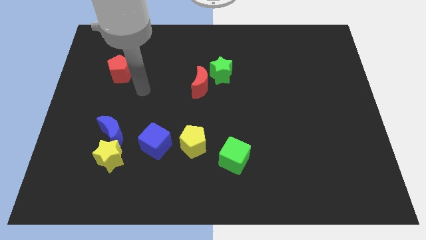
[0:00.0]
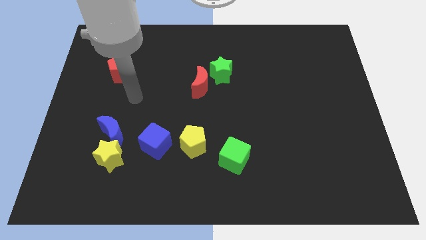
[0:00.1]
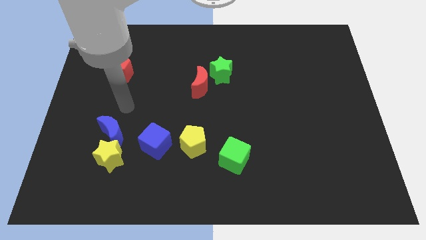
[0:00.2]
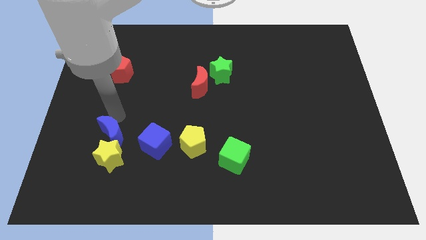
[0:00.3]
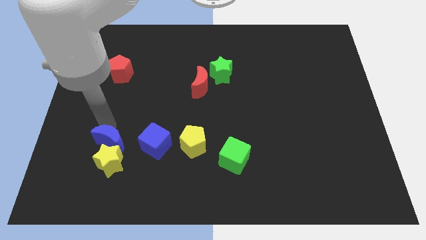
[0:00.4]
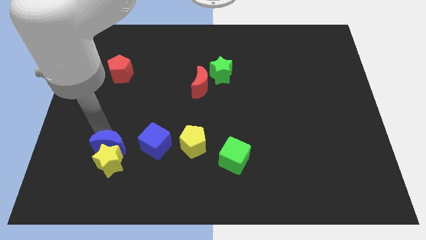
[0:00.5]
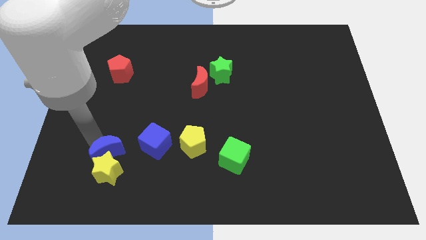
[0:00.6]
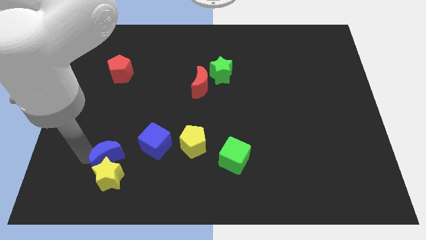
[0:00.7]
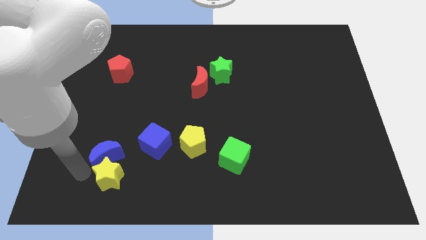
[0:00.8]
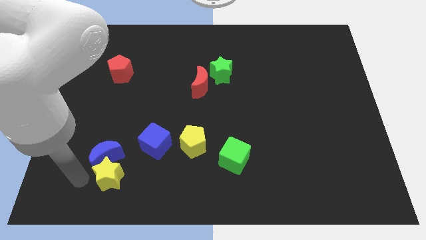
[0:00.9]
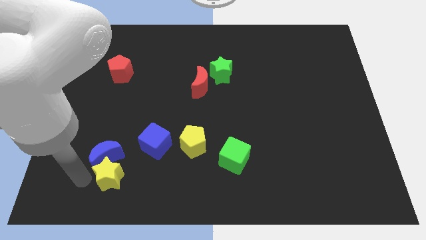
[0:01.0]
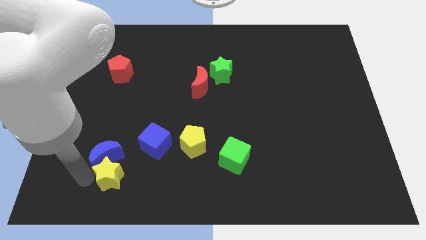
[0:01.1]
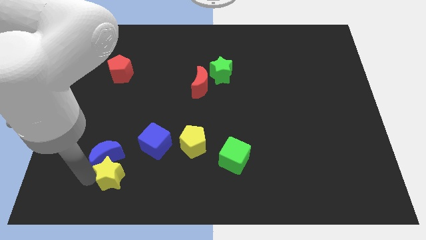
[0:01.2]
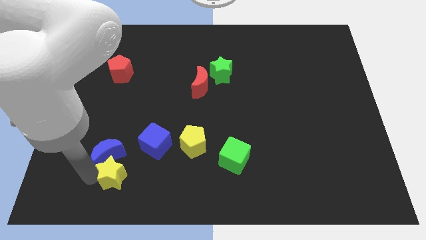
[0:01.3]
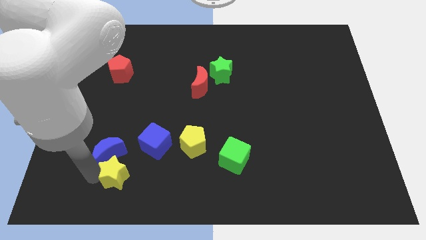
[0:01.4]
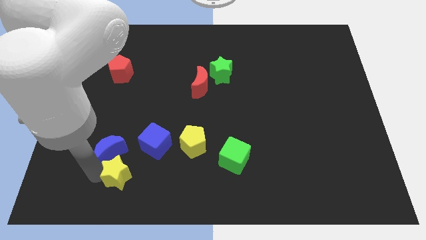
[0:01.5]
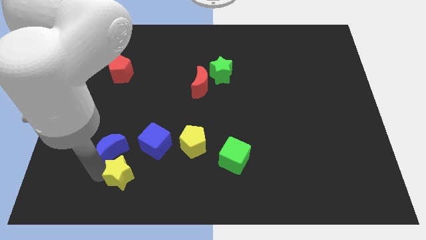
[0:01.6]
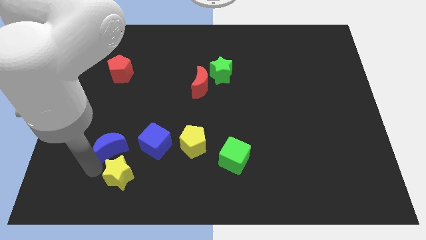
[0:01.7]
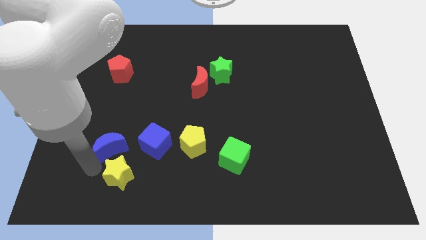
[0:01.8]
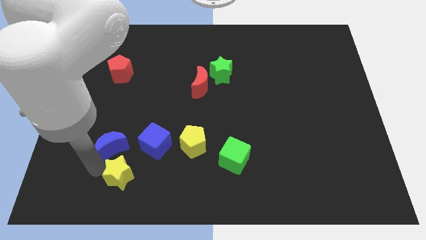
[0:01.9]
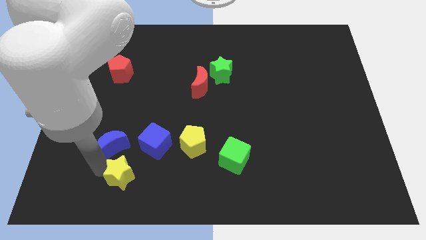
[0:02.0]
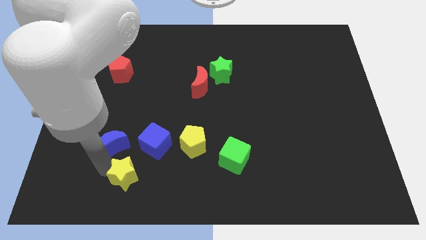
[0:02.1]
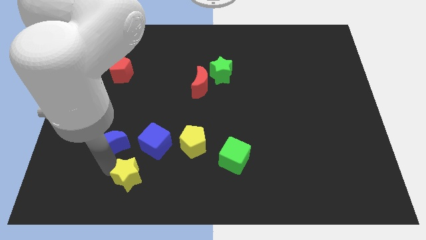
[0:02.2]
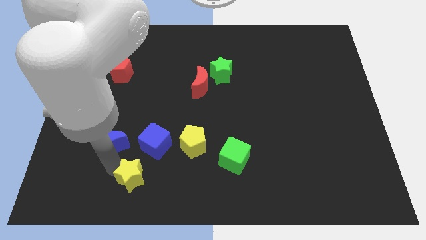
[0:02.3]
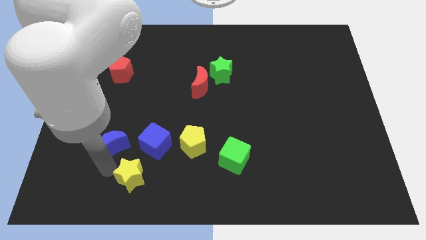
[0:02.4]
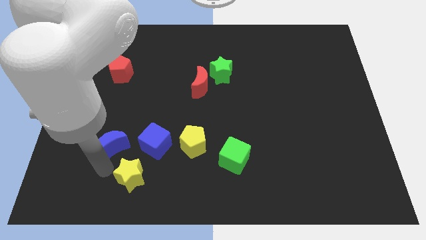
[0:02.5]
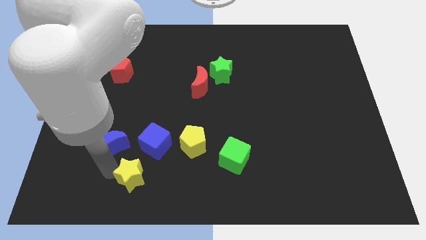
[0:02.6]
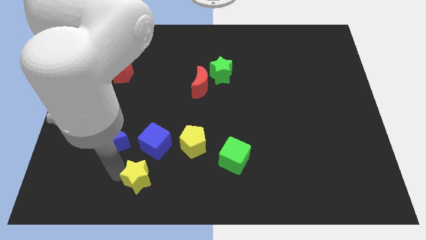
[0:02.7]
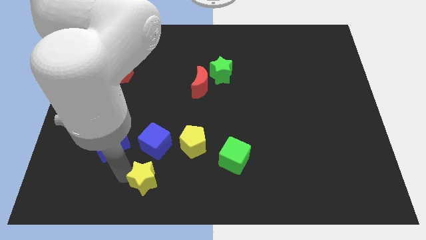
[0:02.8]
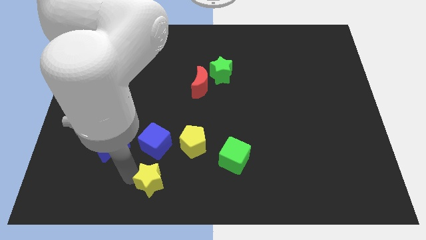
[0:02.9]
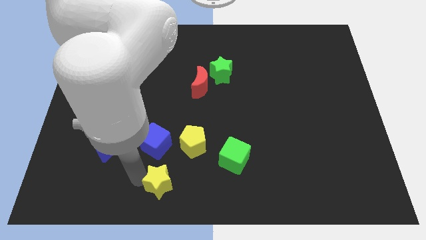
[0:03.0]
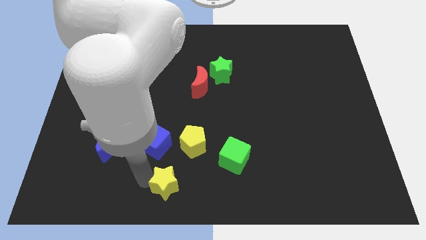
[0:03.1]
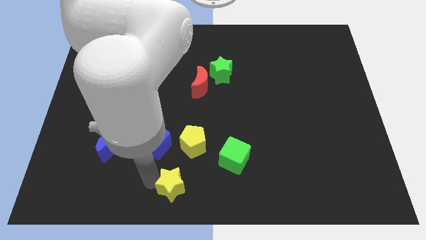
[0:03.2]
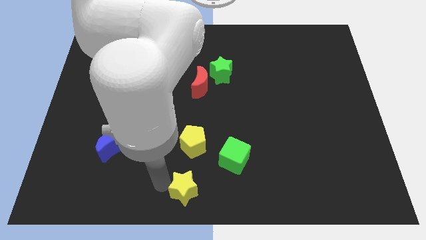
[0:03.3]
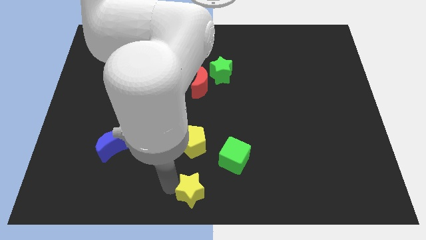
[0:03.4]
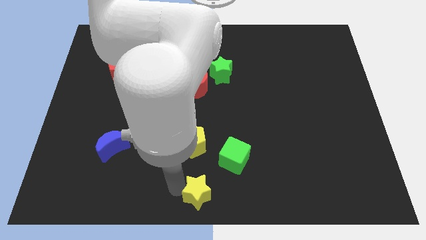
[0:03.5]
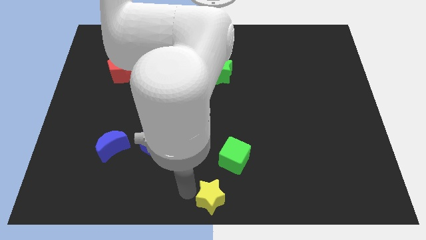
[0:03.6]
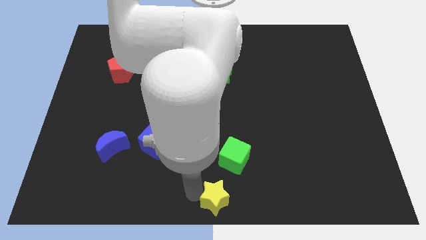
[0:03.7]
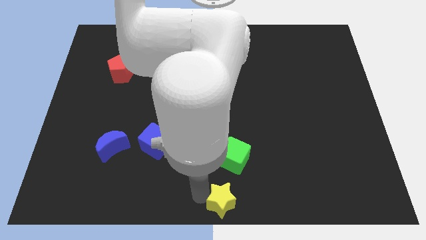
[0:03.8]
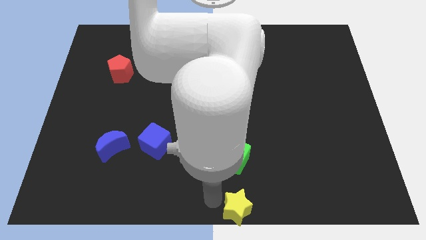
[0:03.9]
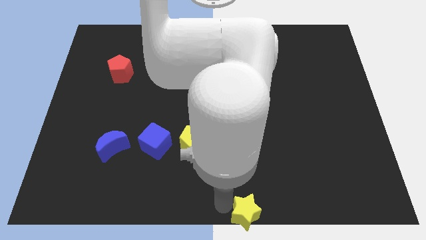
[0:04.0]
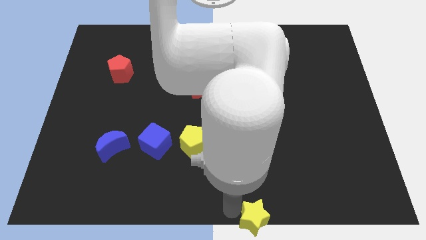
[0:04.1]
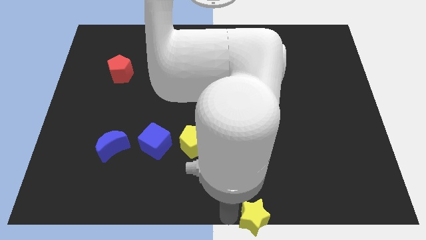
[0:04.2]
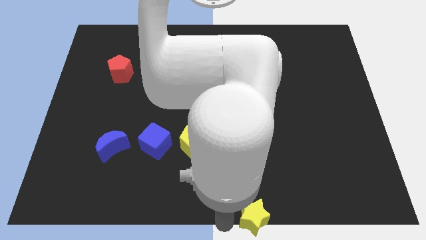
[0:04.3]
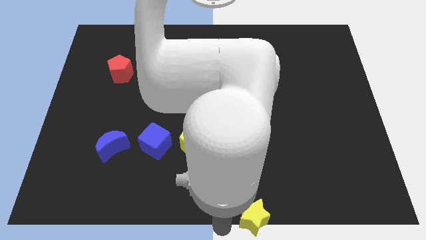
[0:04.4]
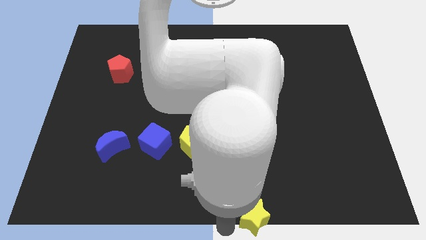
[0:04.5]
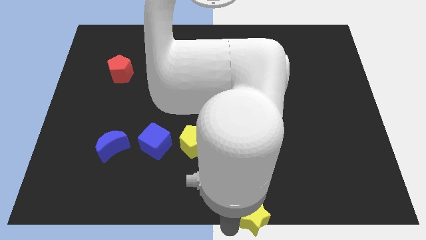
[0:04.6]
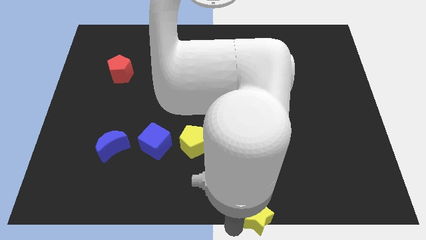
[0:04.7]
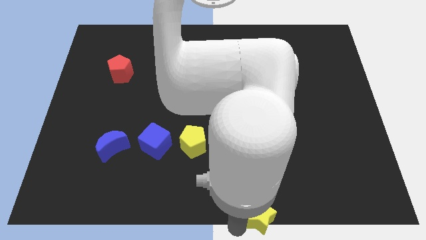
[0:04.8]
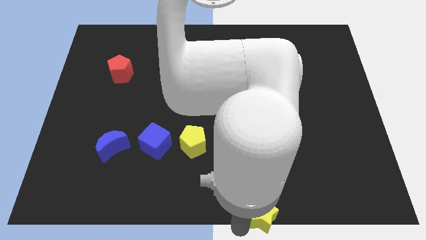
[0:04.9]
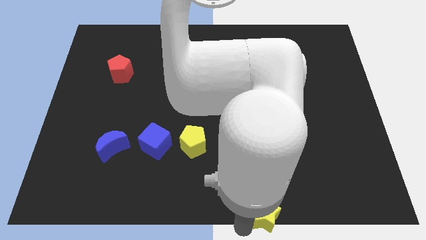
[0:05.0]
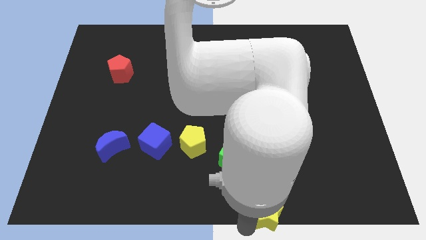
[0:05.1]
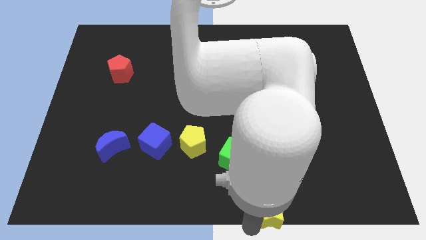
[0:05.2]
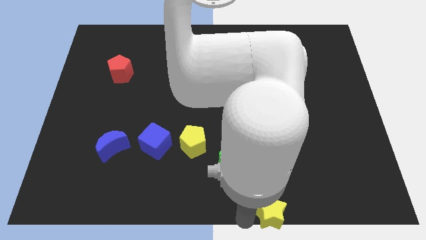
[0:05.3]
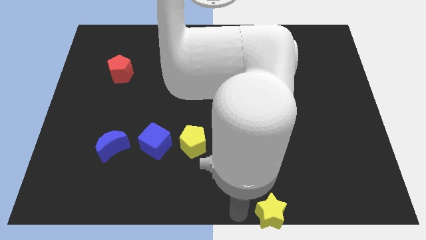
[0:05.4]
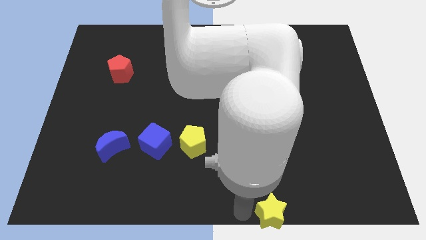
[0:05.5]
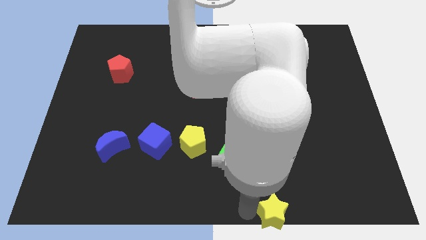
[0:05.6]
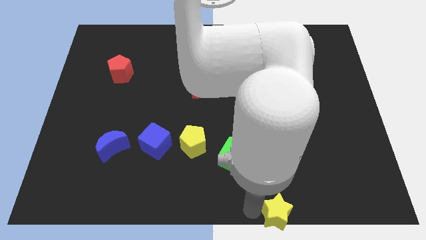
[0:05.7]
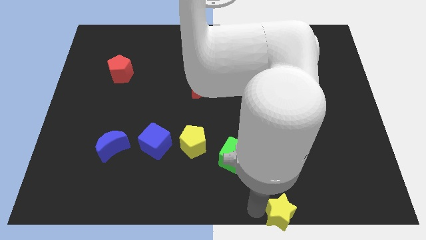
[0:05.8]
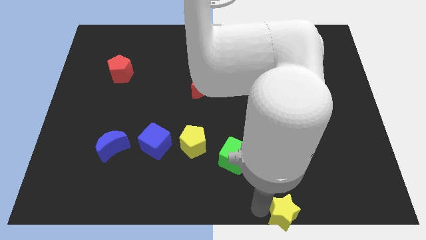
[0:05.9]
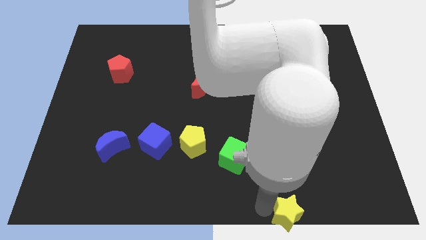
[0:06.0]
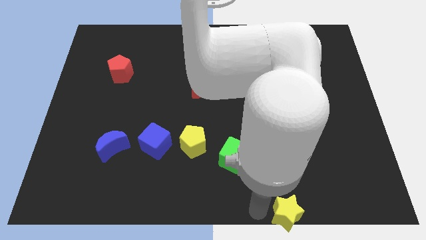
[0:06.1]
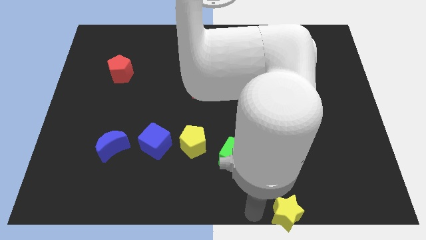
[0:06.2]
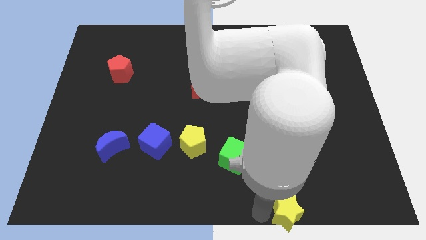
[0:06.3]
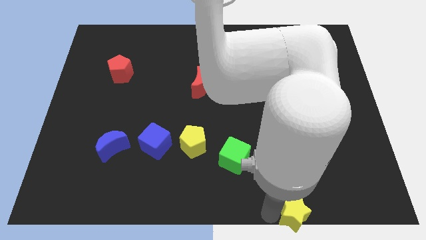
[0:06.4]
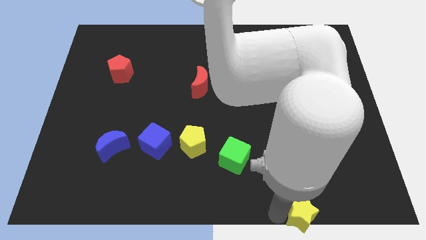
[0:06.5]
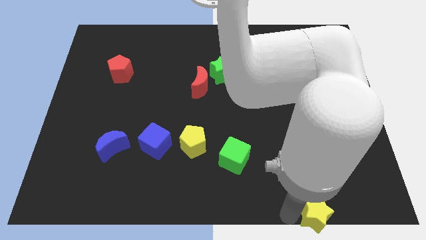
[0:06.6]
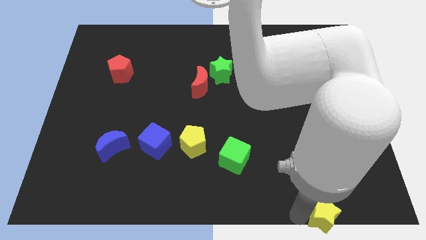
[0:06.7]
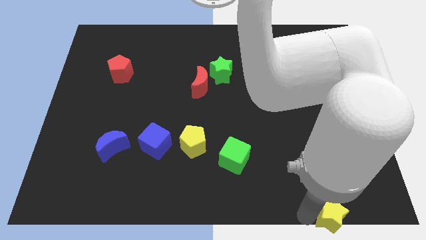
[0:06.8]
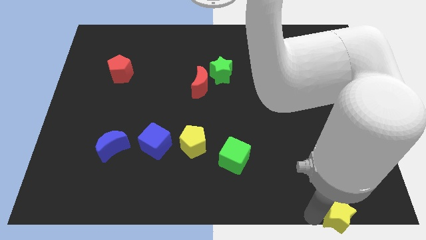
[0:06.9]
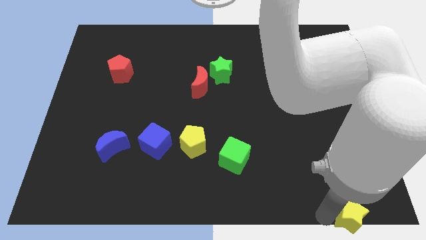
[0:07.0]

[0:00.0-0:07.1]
slide the yellow star to the bottom right corner
